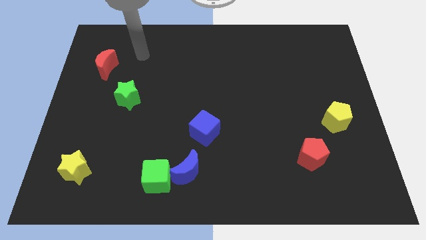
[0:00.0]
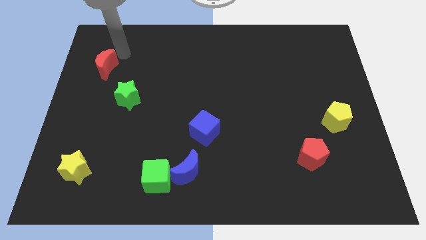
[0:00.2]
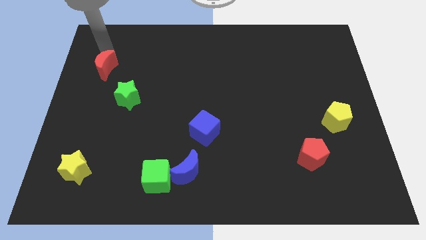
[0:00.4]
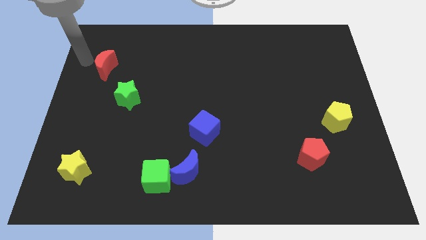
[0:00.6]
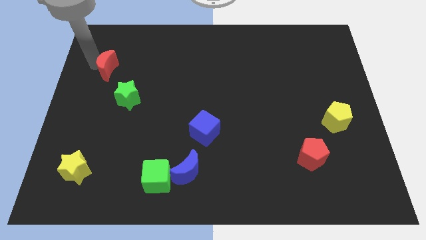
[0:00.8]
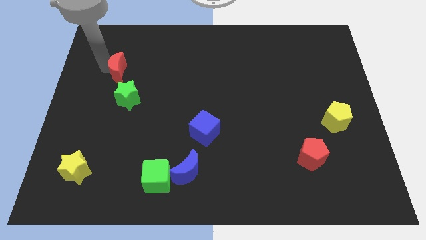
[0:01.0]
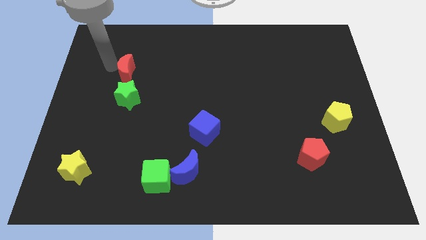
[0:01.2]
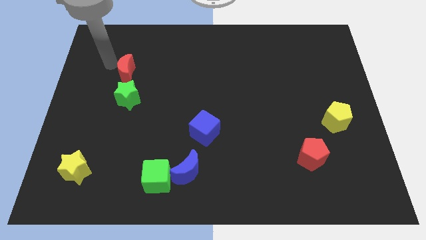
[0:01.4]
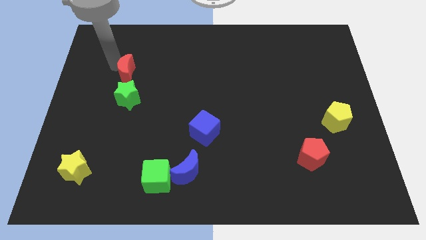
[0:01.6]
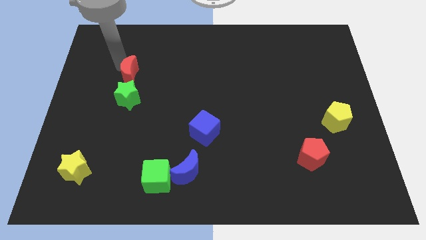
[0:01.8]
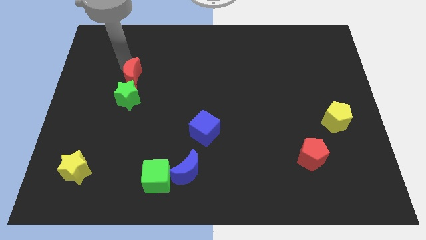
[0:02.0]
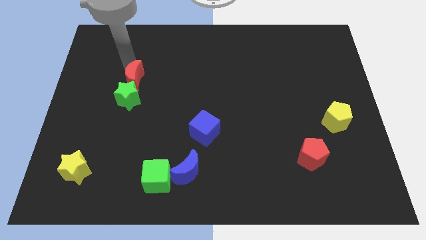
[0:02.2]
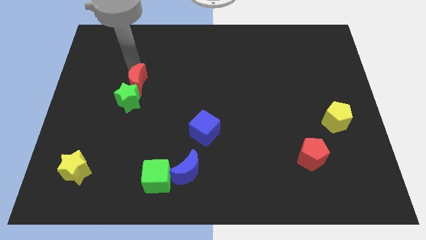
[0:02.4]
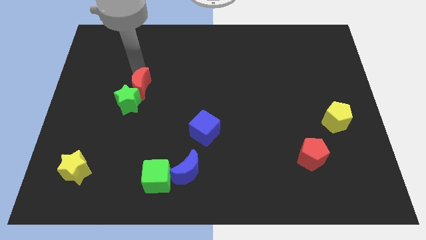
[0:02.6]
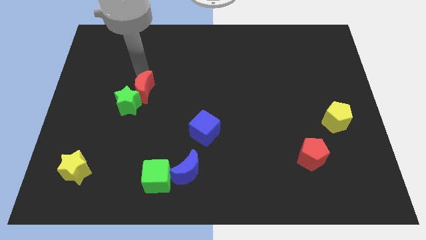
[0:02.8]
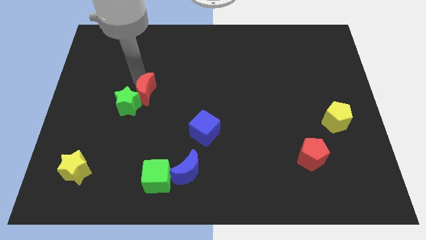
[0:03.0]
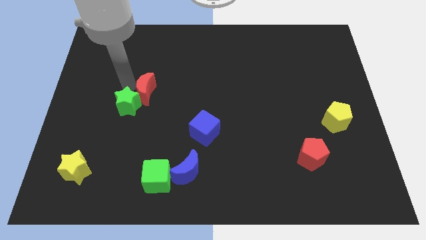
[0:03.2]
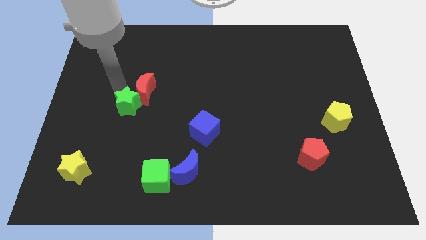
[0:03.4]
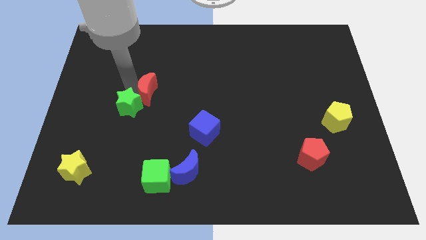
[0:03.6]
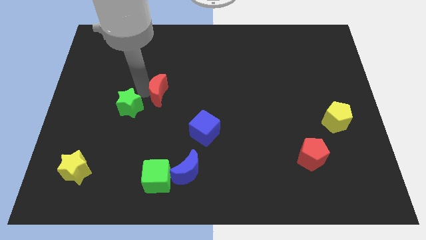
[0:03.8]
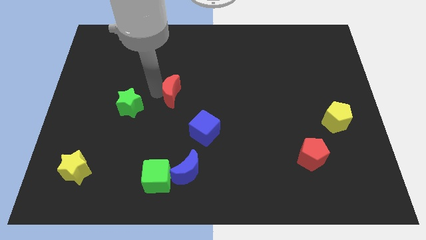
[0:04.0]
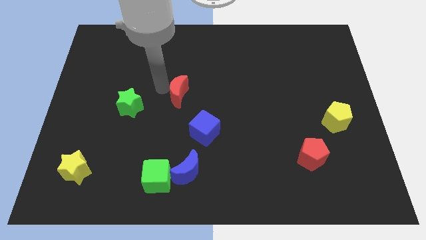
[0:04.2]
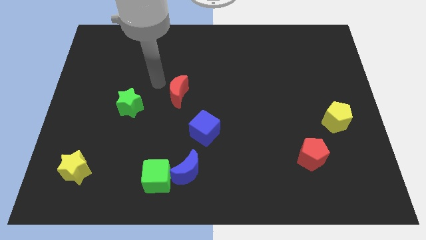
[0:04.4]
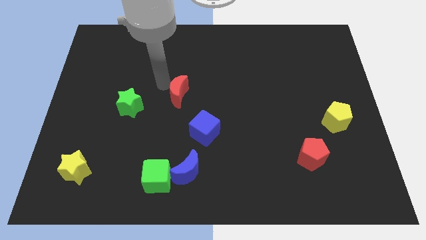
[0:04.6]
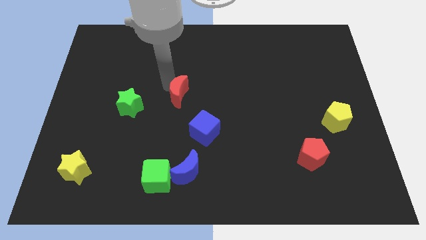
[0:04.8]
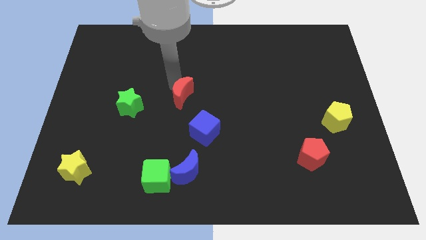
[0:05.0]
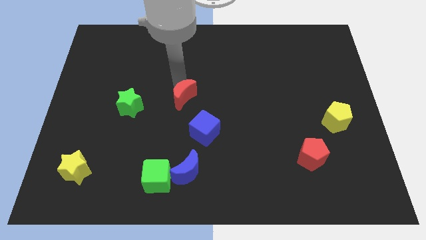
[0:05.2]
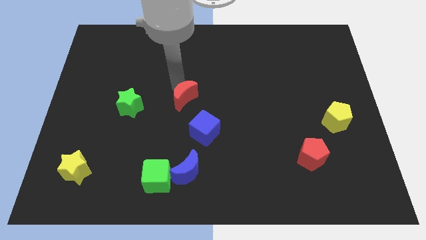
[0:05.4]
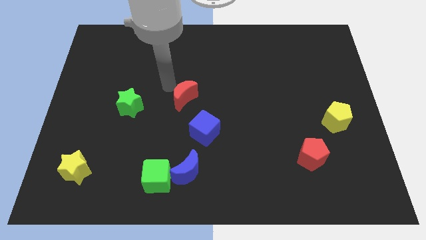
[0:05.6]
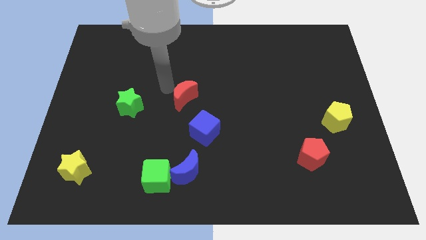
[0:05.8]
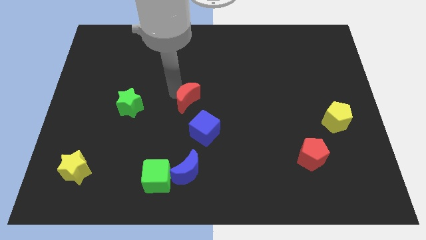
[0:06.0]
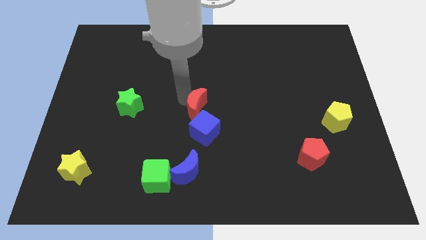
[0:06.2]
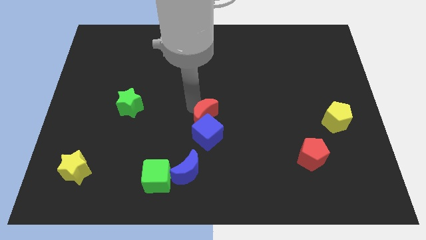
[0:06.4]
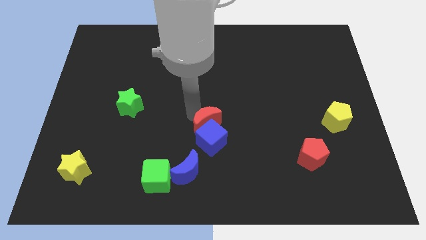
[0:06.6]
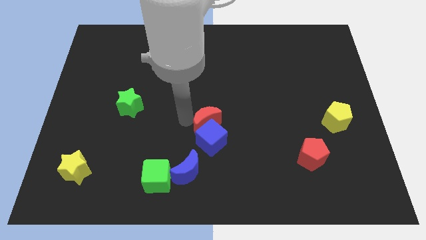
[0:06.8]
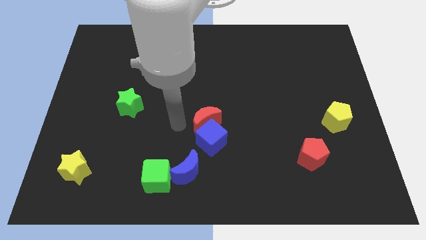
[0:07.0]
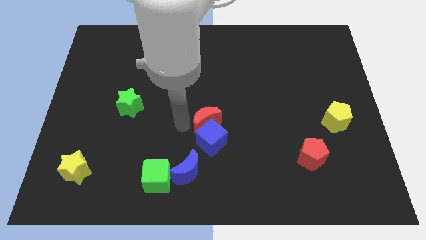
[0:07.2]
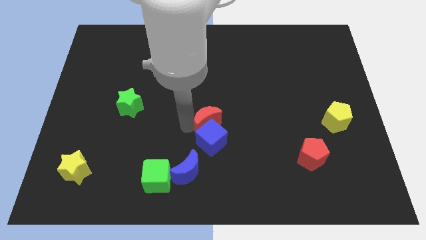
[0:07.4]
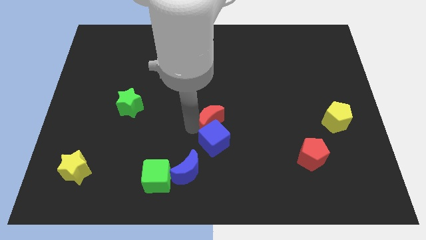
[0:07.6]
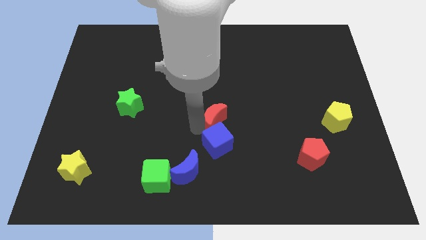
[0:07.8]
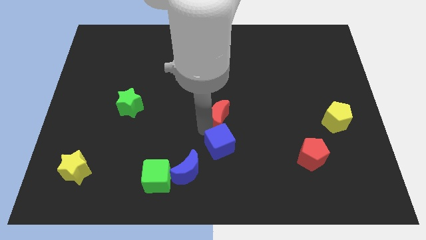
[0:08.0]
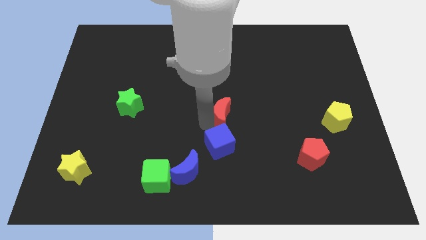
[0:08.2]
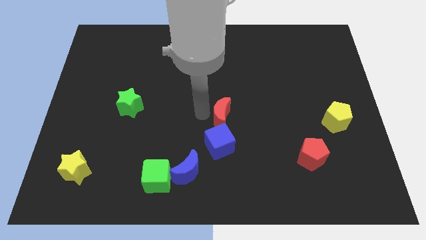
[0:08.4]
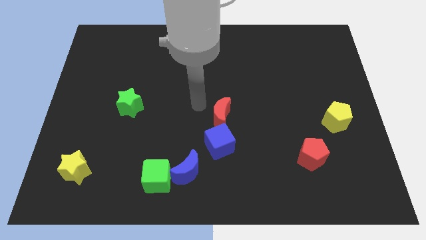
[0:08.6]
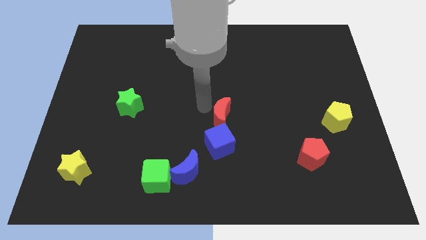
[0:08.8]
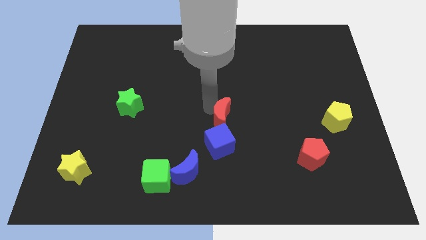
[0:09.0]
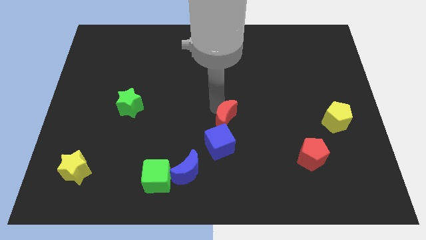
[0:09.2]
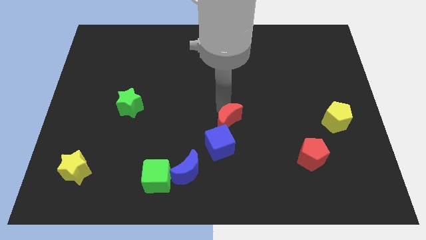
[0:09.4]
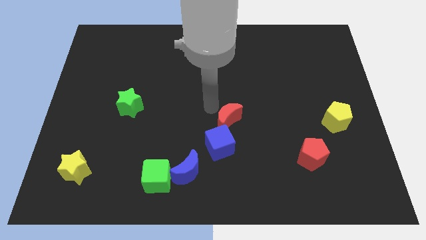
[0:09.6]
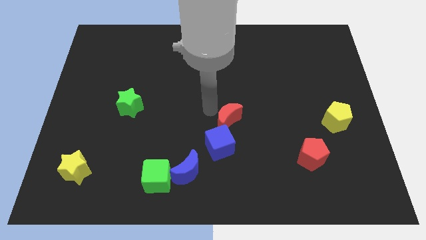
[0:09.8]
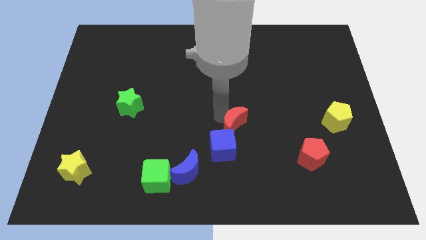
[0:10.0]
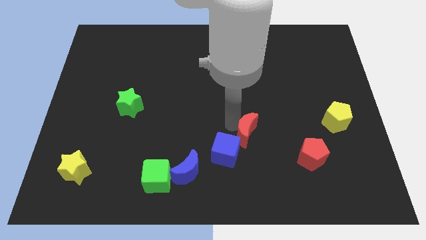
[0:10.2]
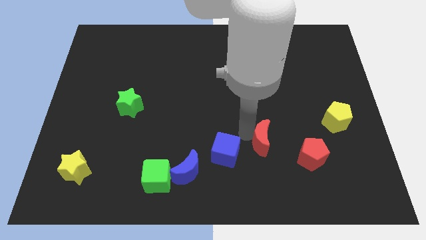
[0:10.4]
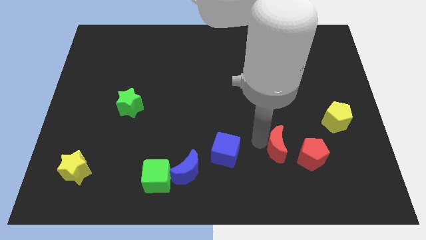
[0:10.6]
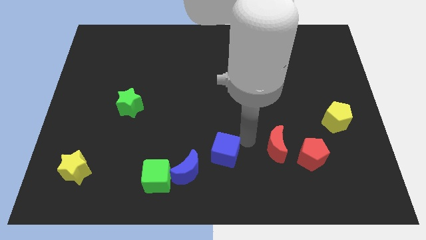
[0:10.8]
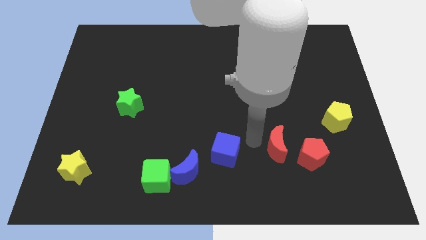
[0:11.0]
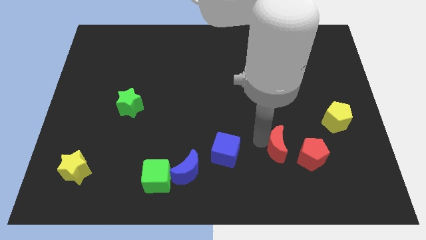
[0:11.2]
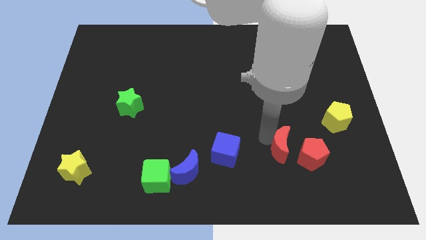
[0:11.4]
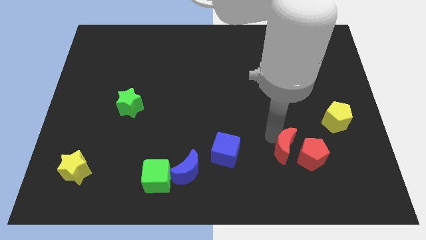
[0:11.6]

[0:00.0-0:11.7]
put the red moon close to the red pentagon
